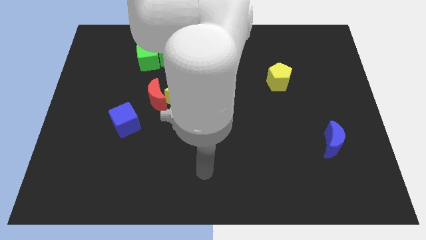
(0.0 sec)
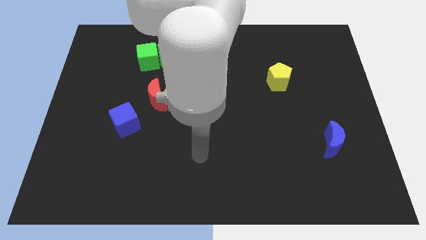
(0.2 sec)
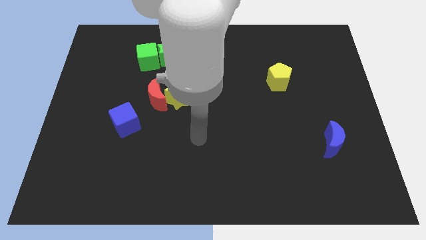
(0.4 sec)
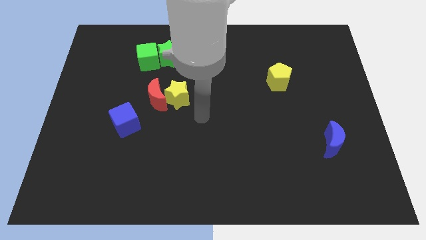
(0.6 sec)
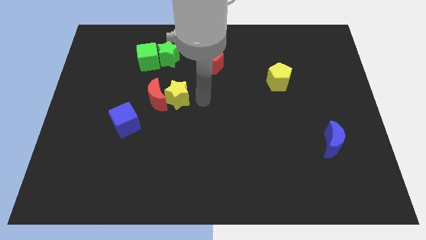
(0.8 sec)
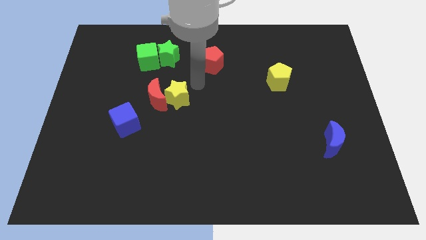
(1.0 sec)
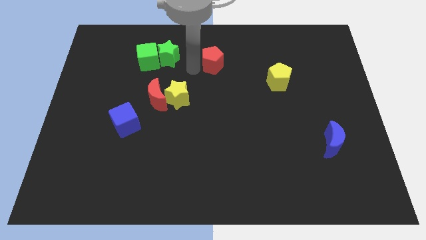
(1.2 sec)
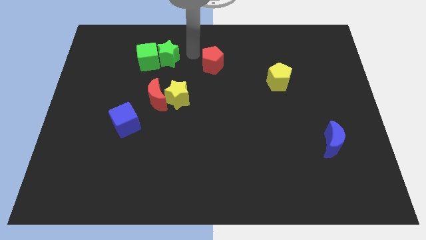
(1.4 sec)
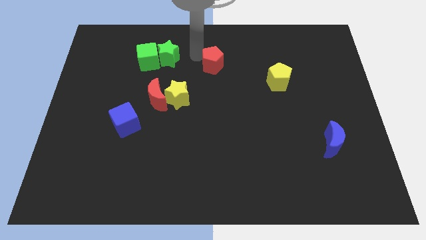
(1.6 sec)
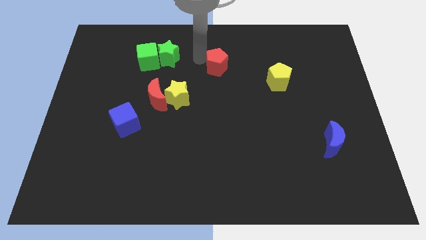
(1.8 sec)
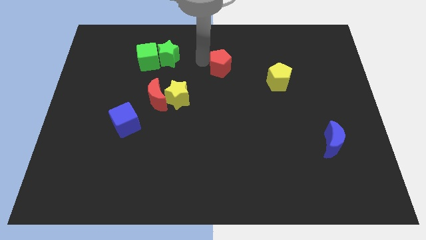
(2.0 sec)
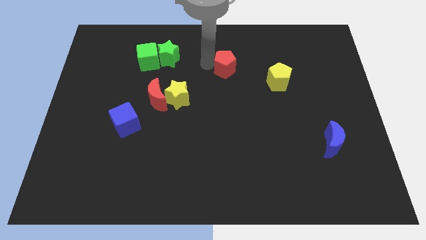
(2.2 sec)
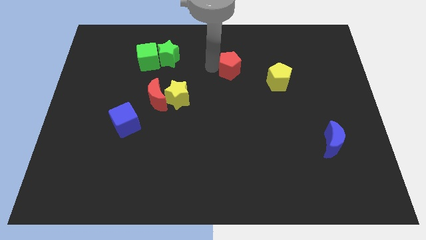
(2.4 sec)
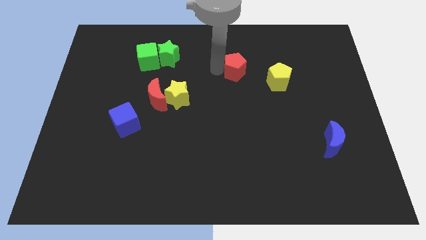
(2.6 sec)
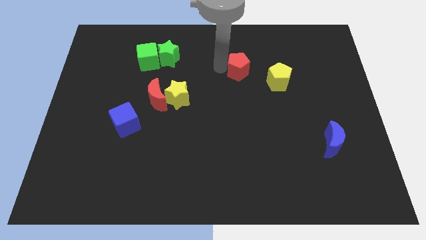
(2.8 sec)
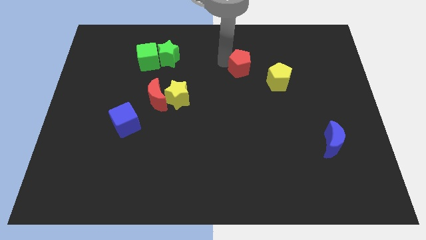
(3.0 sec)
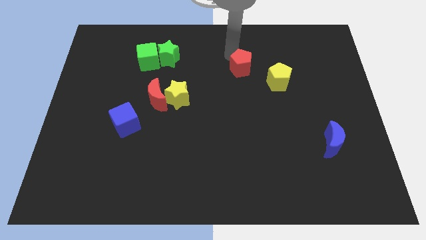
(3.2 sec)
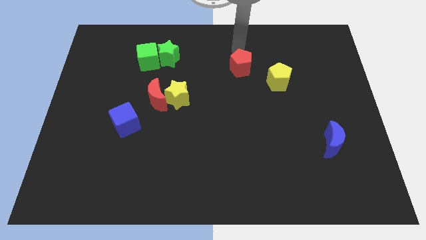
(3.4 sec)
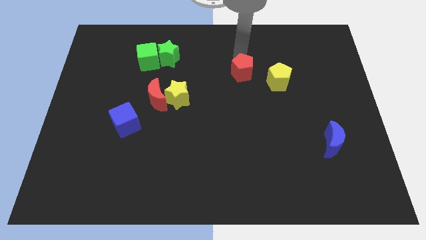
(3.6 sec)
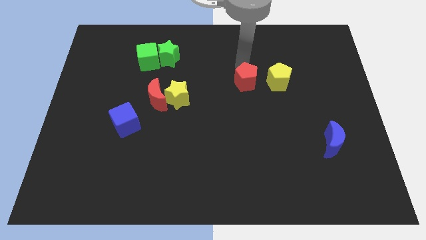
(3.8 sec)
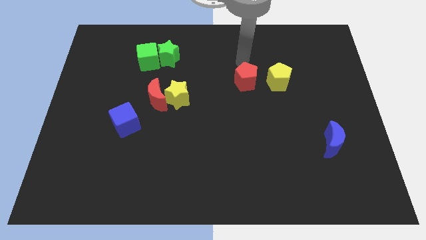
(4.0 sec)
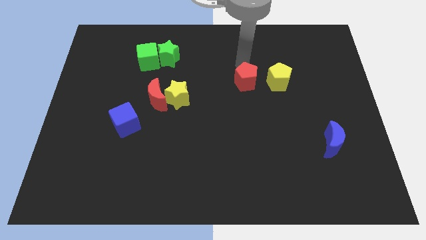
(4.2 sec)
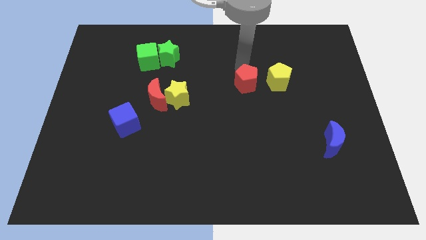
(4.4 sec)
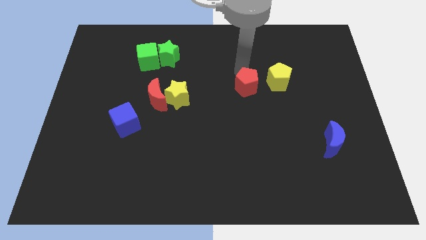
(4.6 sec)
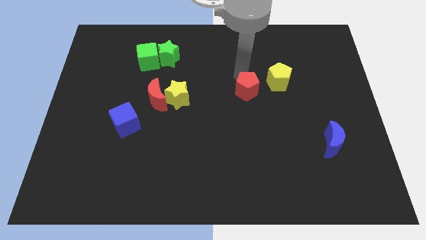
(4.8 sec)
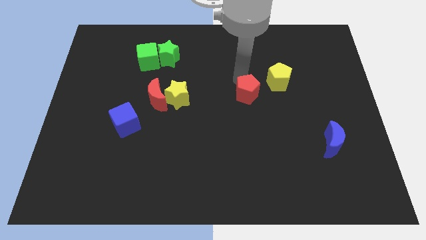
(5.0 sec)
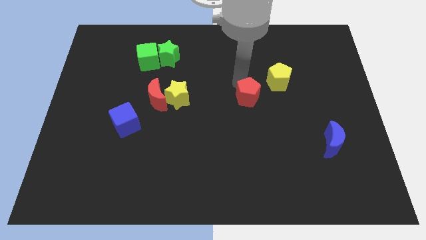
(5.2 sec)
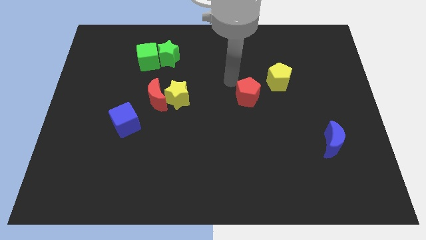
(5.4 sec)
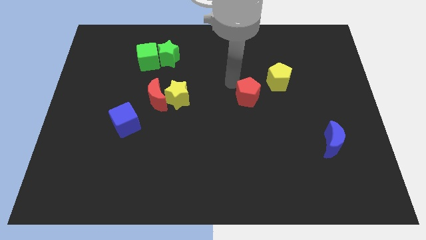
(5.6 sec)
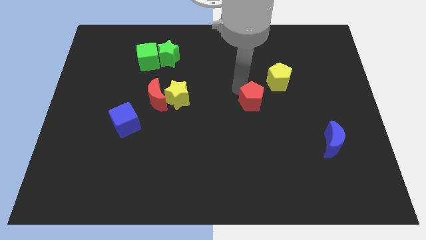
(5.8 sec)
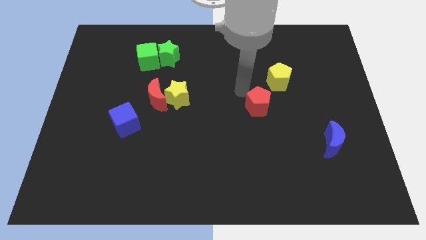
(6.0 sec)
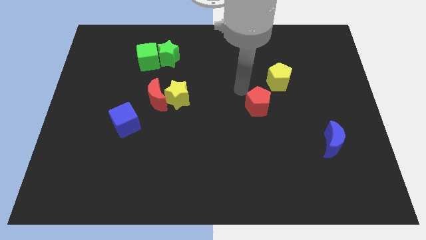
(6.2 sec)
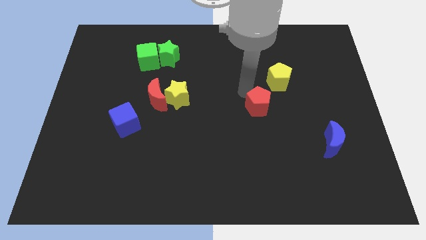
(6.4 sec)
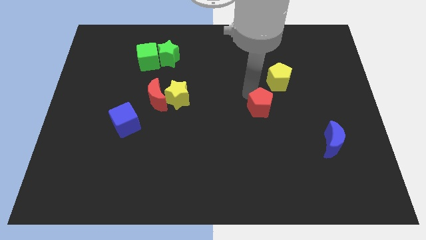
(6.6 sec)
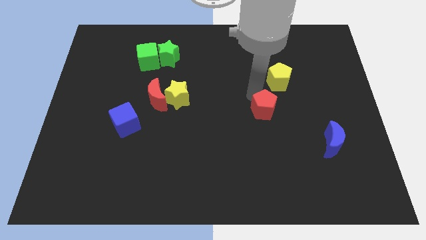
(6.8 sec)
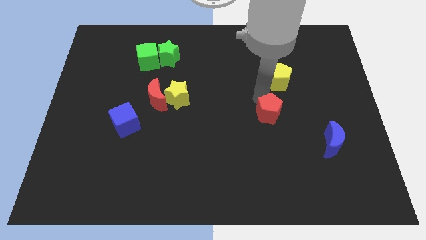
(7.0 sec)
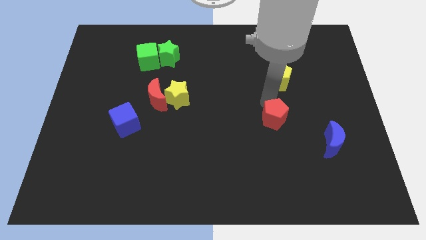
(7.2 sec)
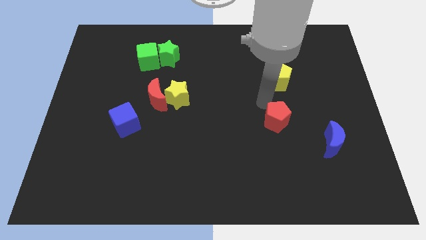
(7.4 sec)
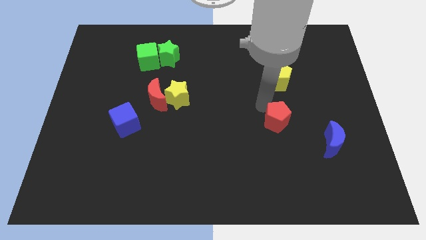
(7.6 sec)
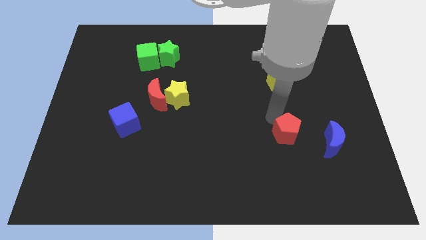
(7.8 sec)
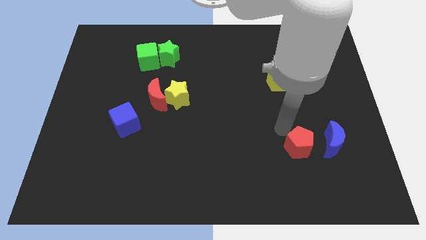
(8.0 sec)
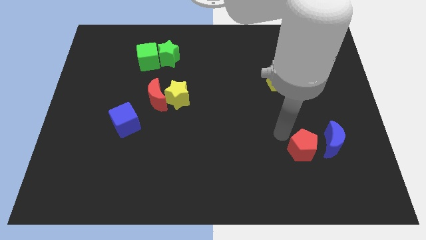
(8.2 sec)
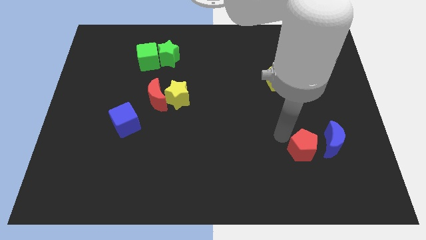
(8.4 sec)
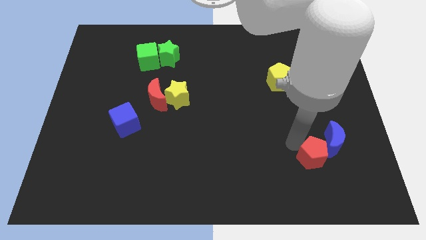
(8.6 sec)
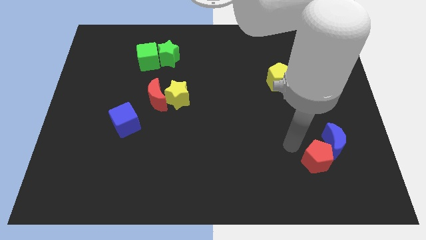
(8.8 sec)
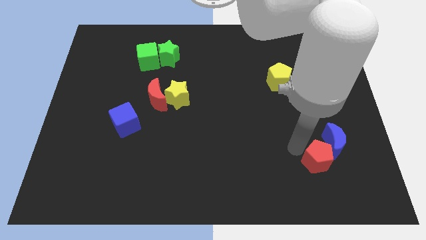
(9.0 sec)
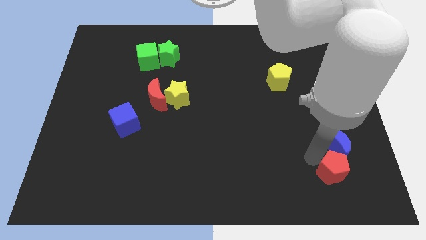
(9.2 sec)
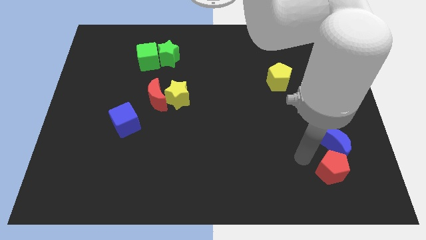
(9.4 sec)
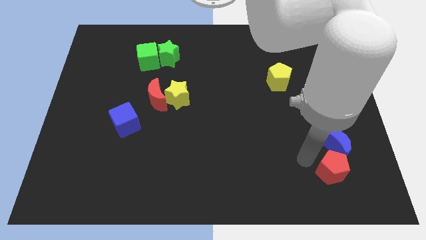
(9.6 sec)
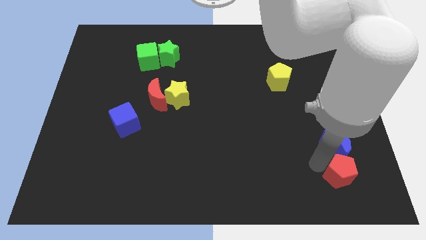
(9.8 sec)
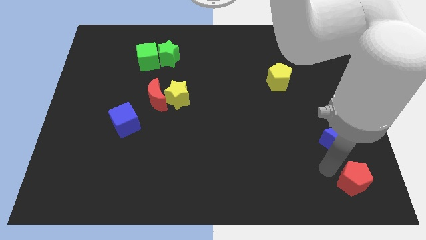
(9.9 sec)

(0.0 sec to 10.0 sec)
slide the red pentagon to the bottom right

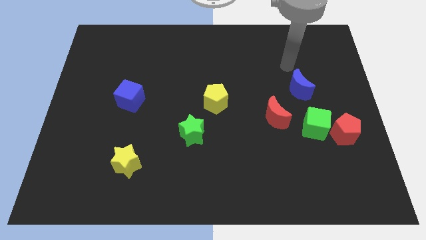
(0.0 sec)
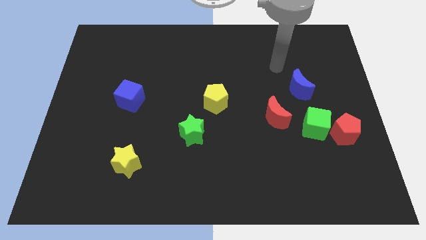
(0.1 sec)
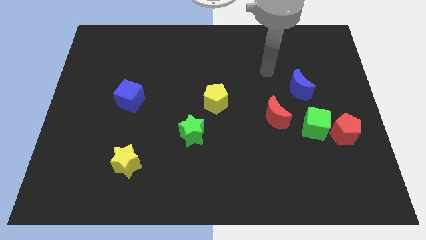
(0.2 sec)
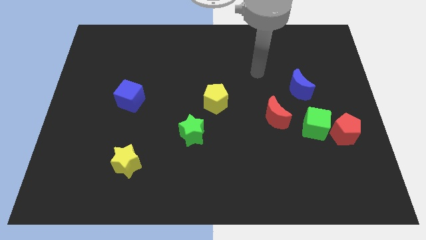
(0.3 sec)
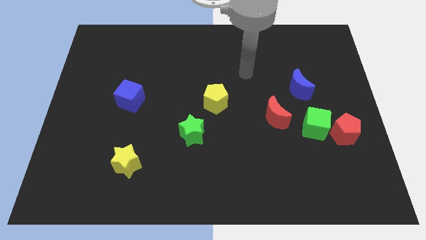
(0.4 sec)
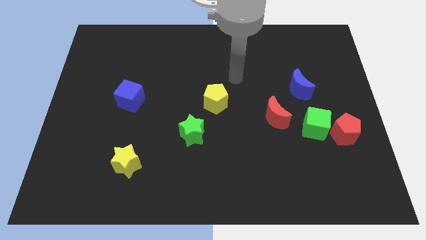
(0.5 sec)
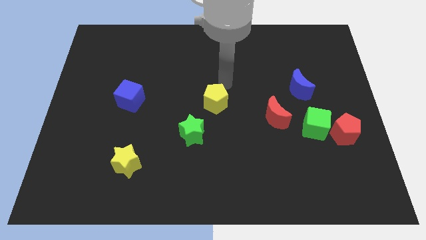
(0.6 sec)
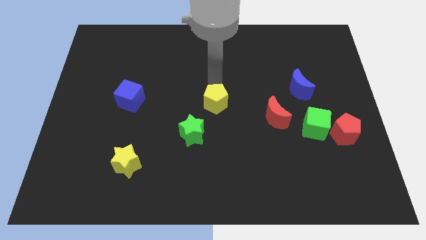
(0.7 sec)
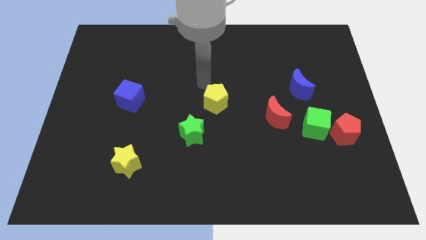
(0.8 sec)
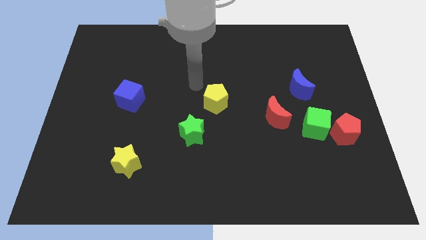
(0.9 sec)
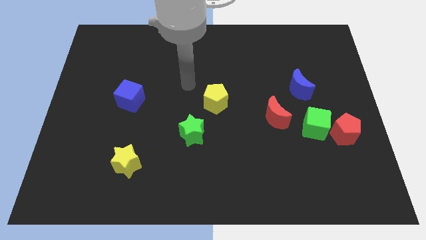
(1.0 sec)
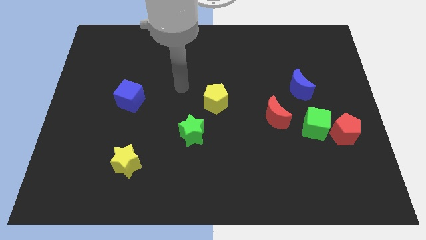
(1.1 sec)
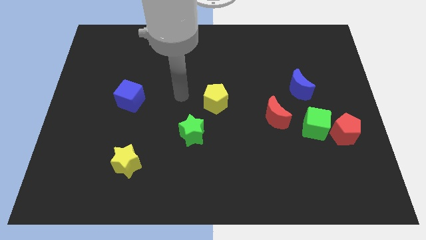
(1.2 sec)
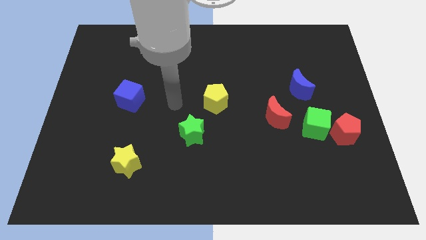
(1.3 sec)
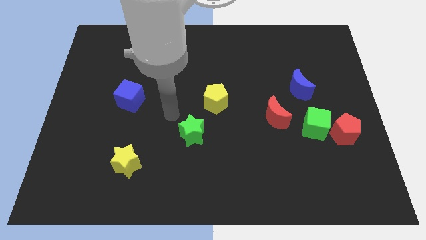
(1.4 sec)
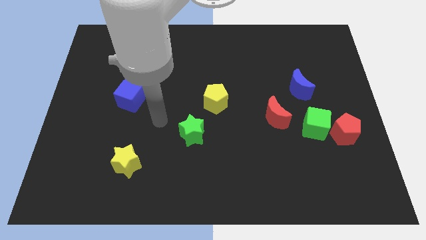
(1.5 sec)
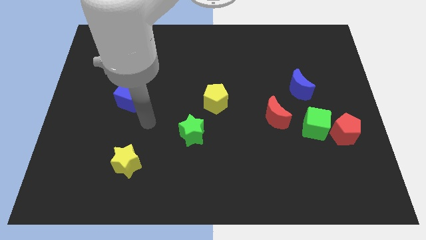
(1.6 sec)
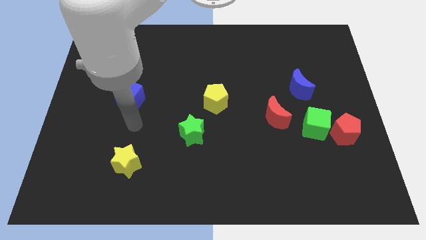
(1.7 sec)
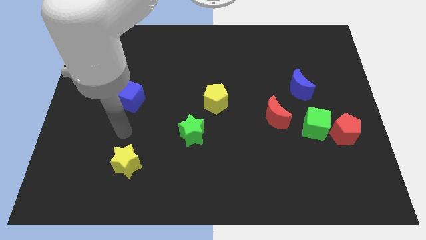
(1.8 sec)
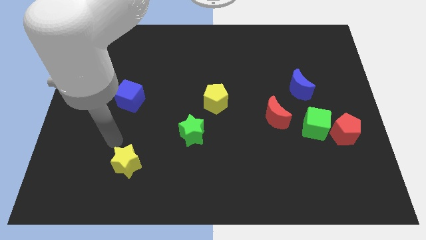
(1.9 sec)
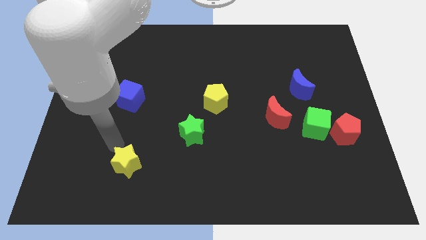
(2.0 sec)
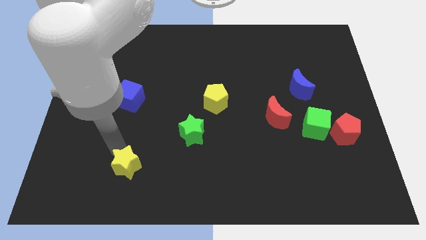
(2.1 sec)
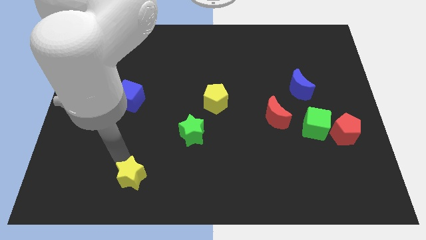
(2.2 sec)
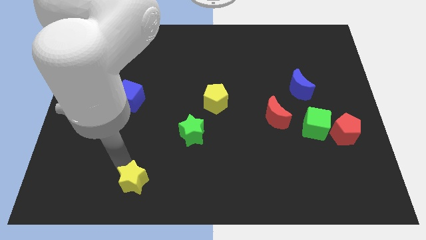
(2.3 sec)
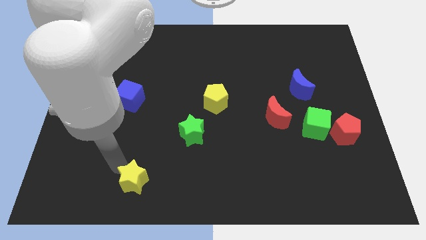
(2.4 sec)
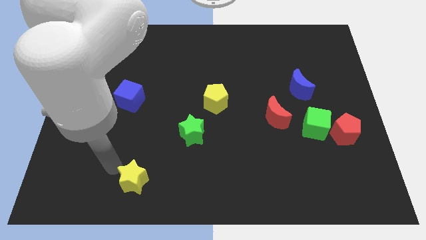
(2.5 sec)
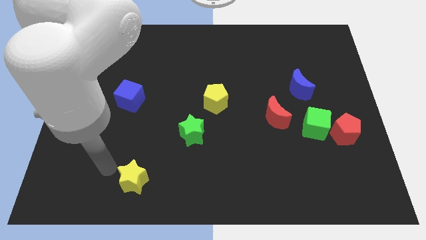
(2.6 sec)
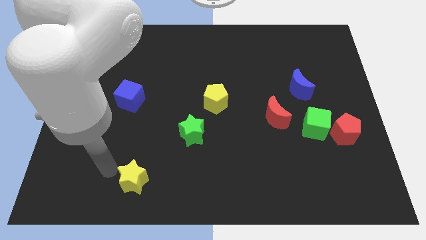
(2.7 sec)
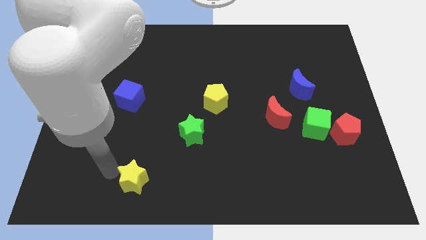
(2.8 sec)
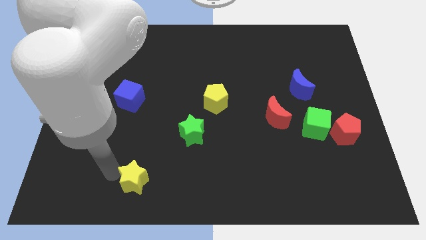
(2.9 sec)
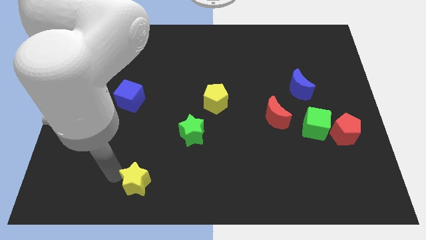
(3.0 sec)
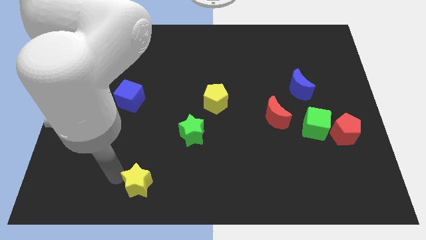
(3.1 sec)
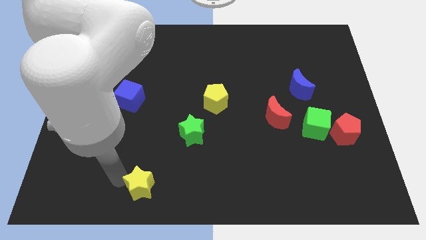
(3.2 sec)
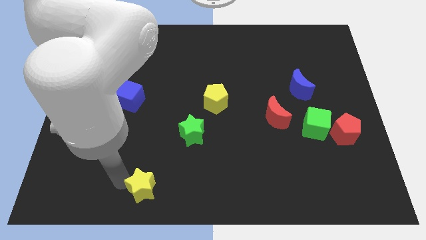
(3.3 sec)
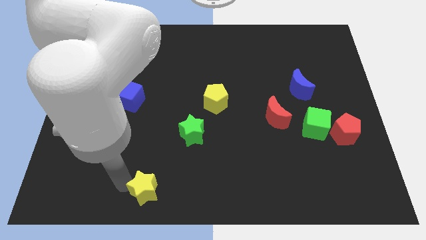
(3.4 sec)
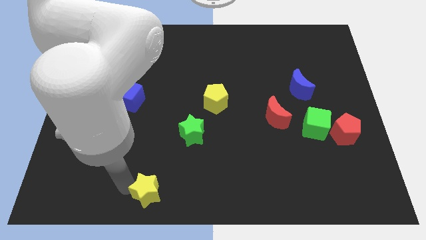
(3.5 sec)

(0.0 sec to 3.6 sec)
move the yellow star to the bottom
